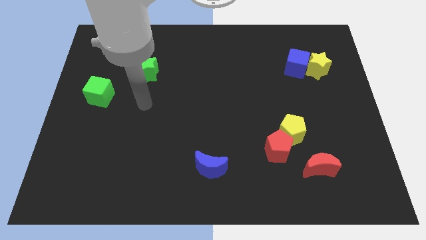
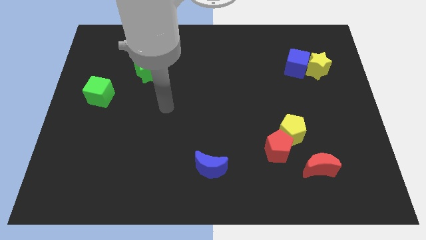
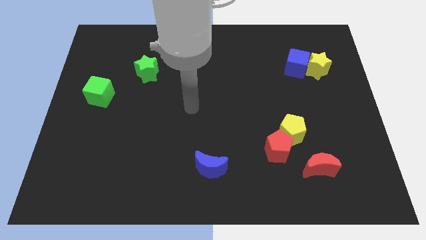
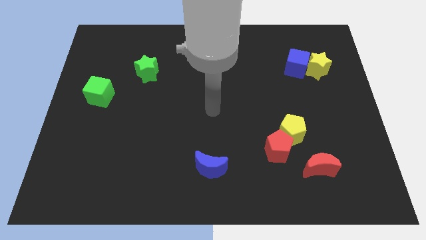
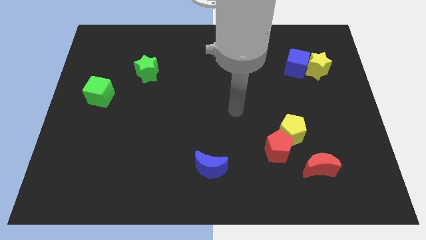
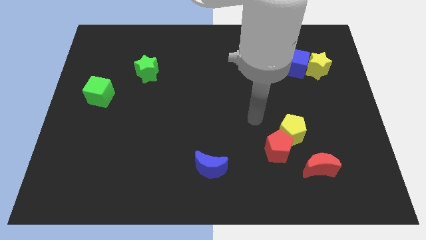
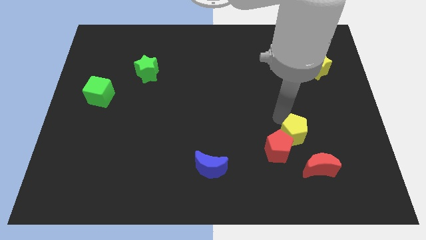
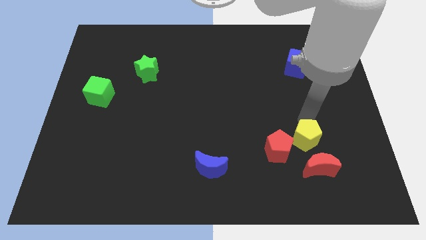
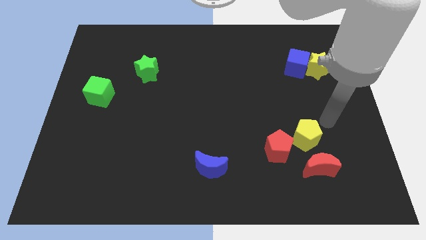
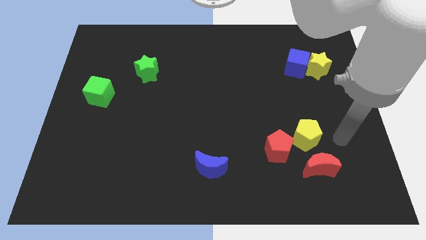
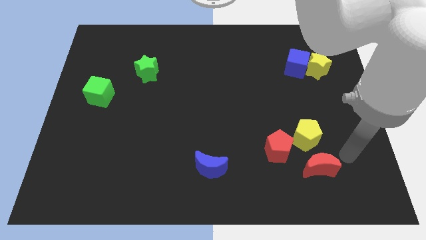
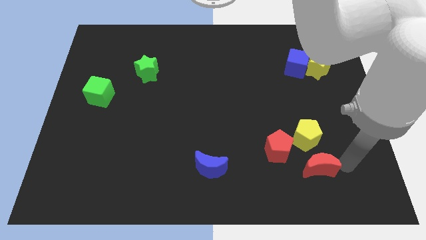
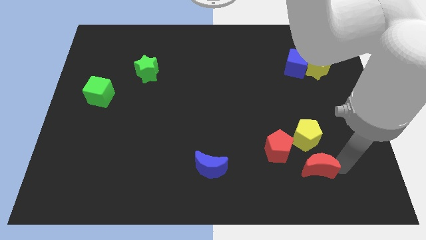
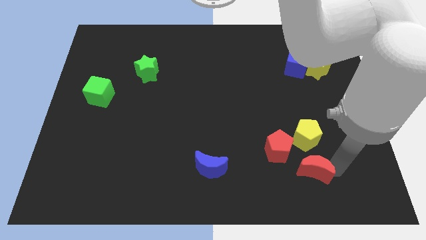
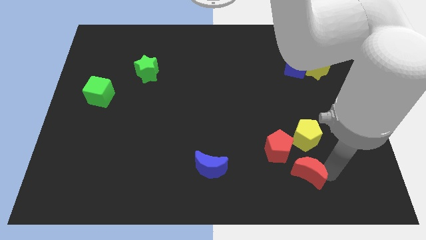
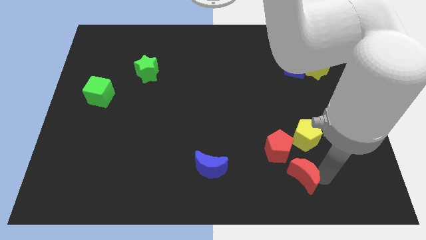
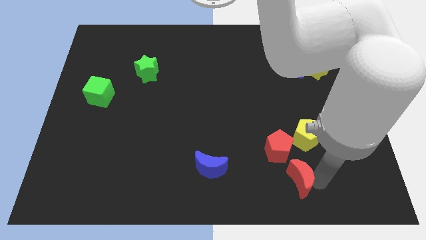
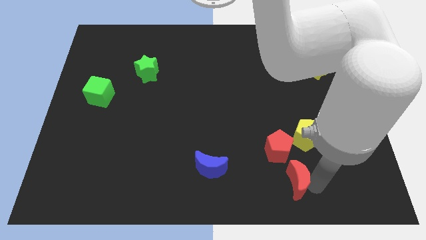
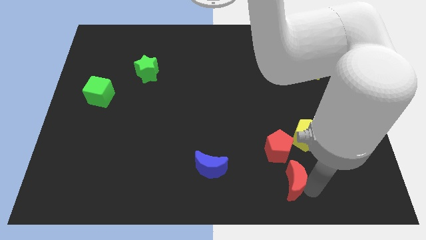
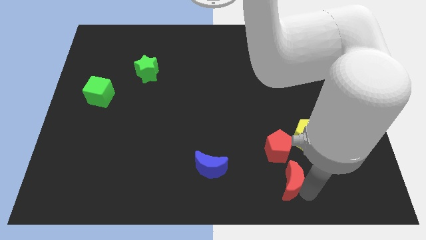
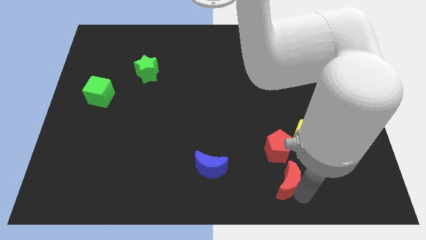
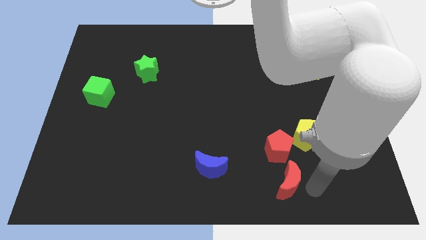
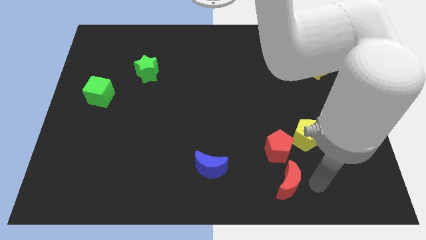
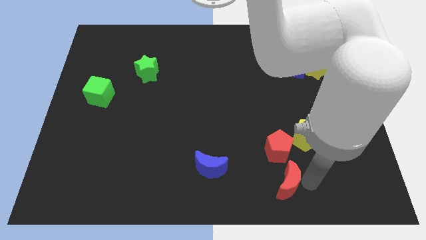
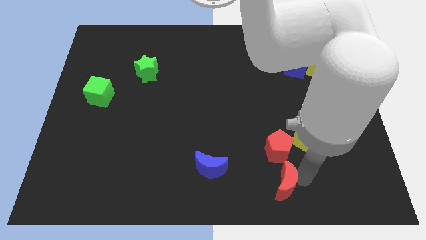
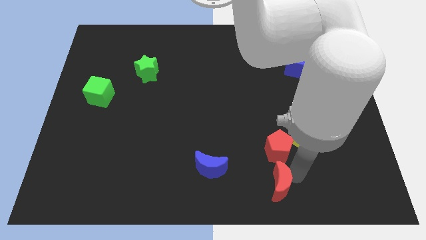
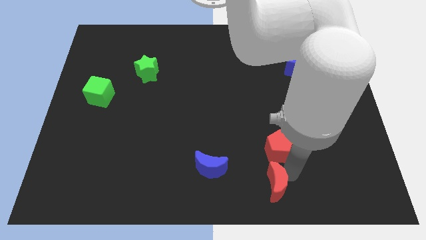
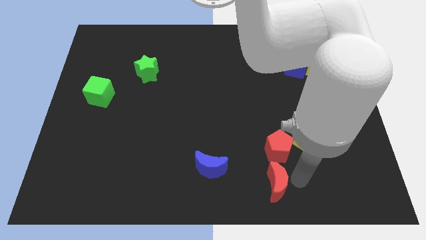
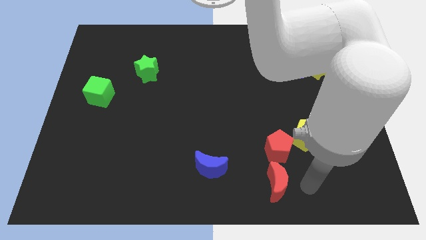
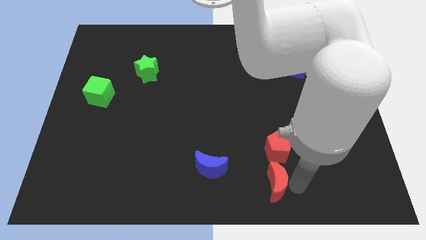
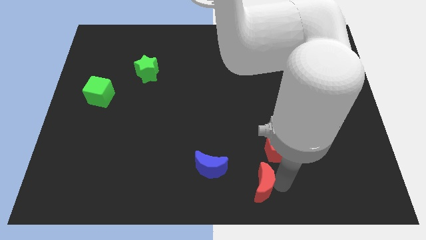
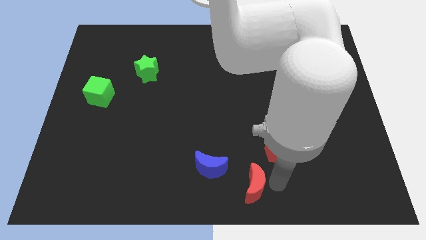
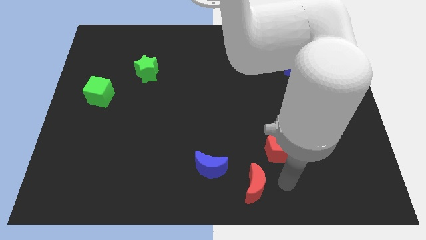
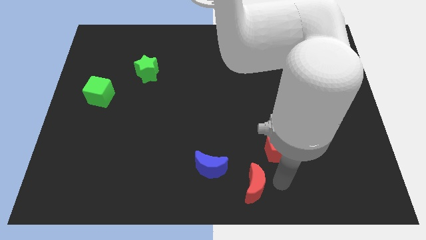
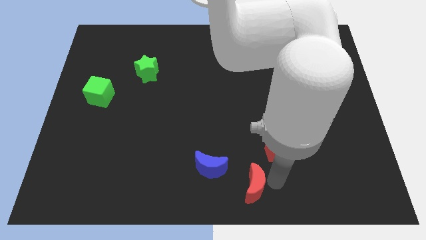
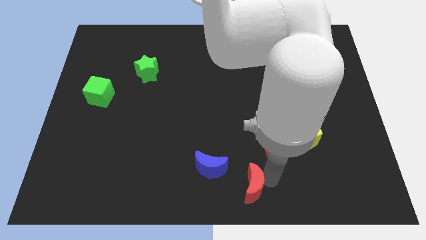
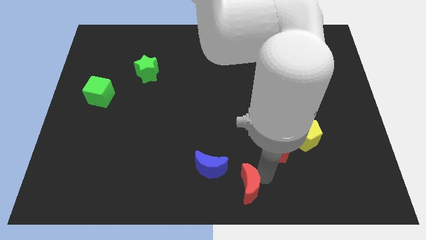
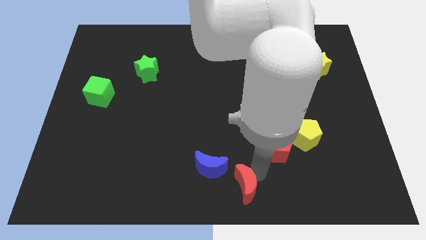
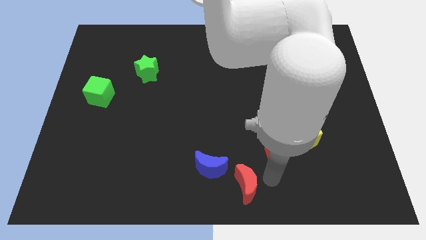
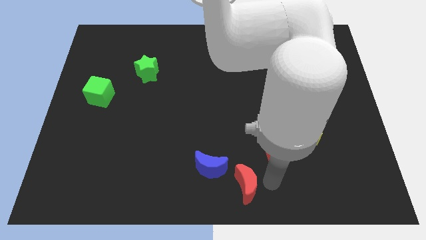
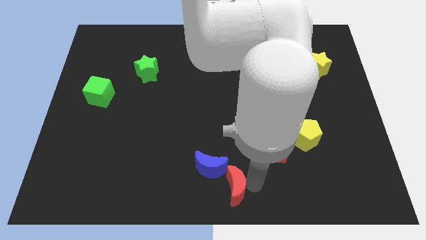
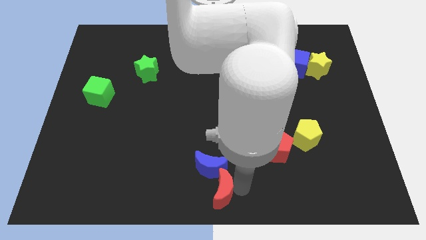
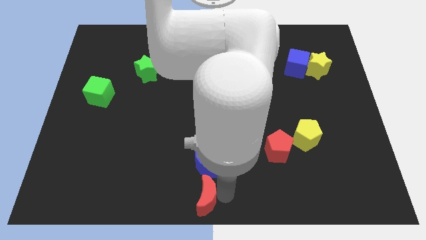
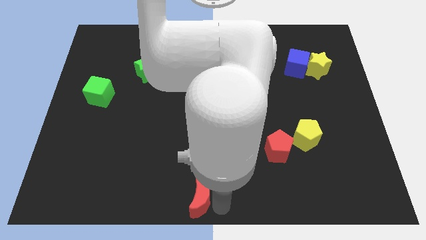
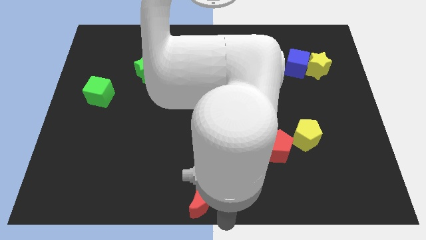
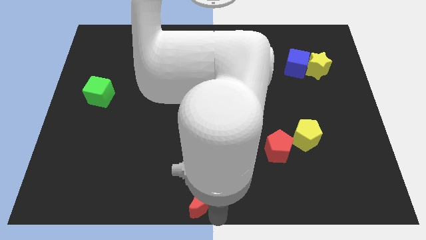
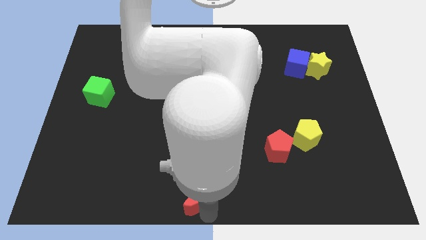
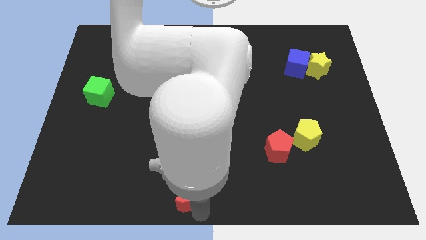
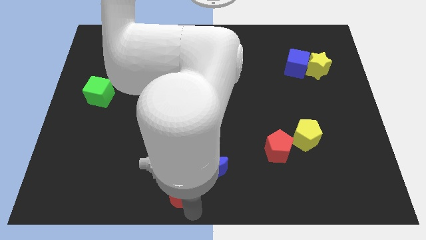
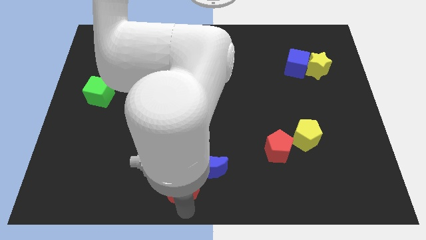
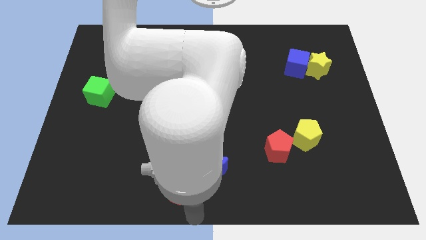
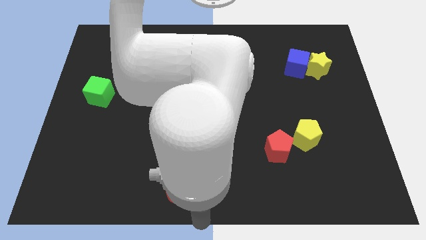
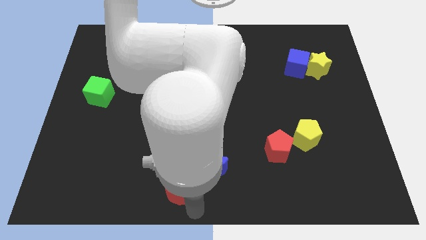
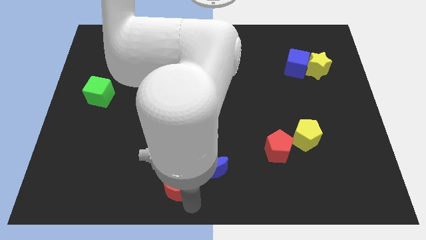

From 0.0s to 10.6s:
push the red moon left of the blue moon

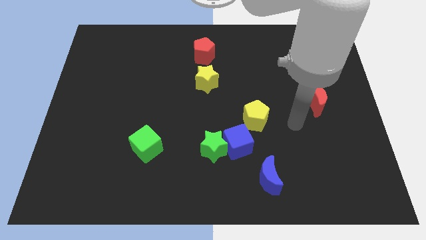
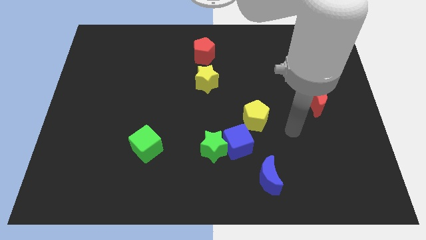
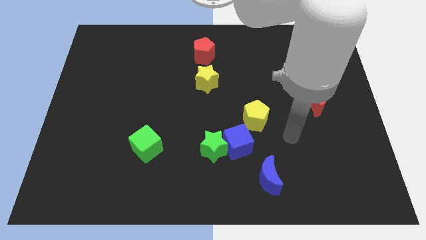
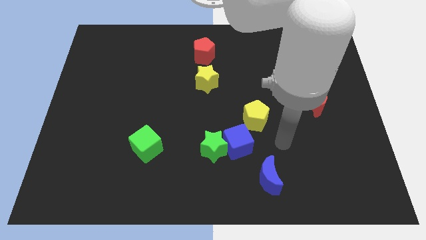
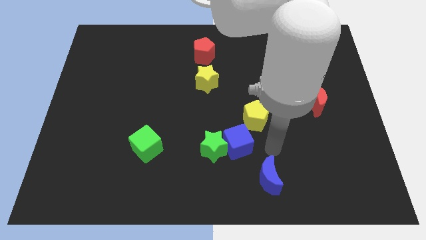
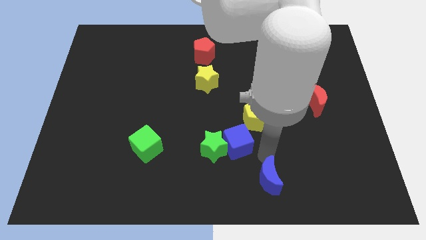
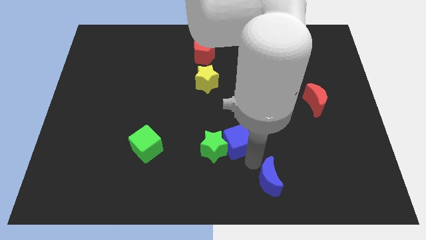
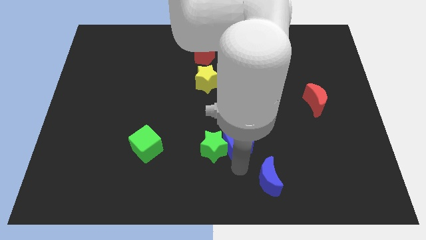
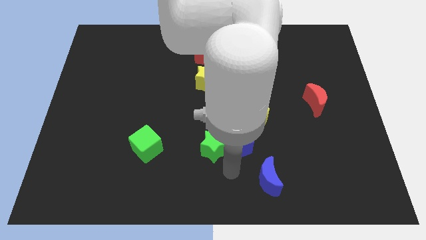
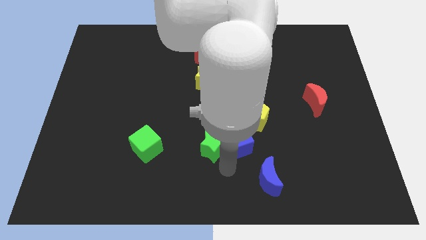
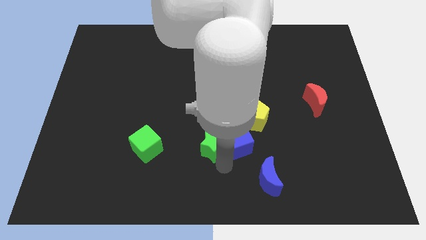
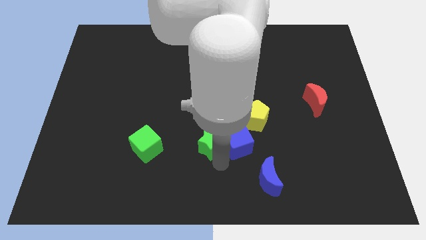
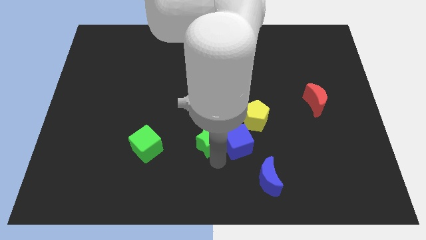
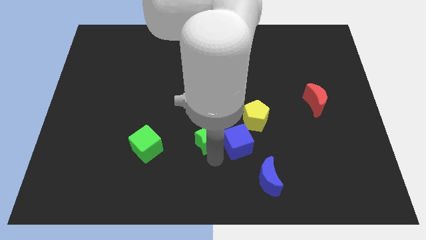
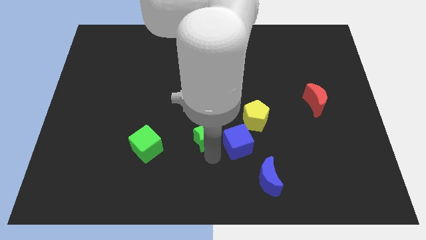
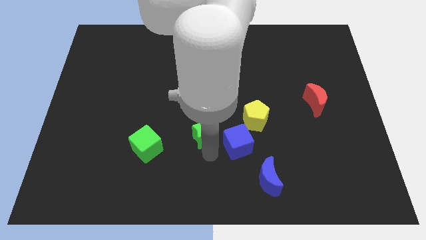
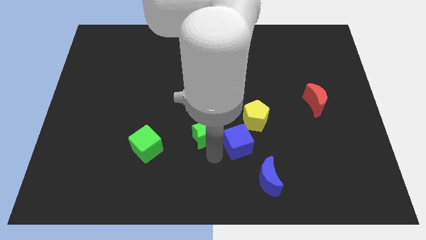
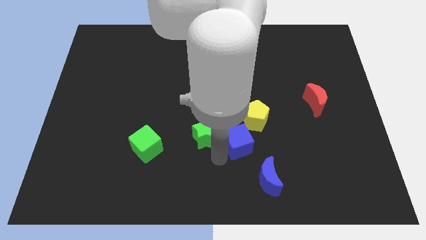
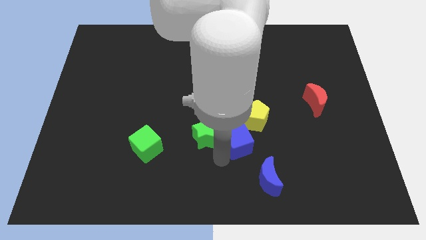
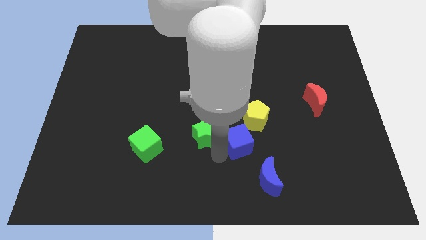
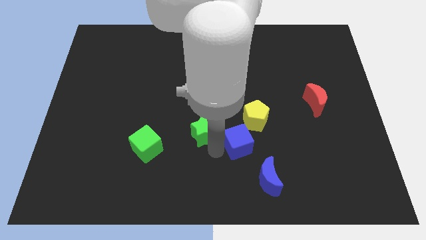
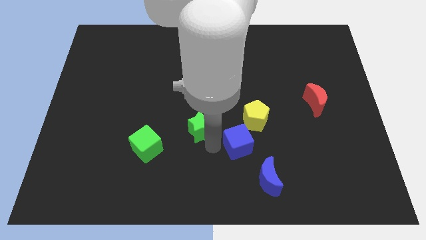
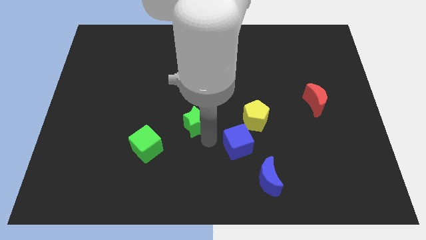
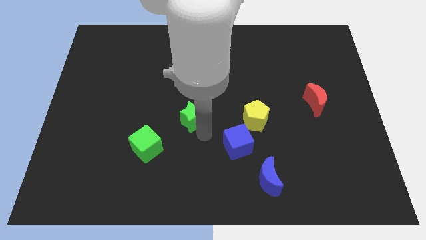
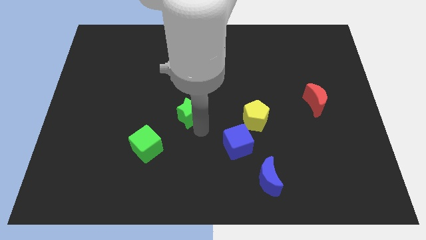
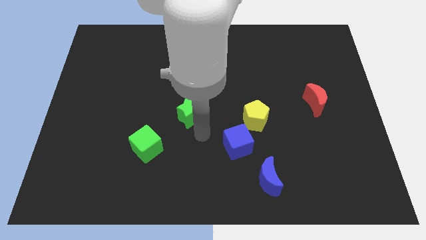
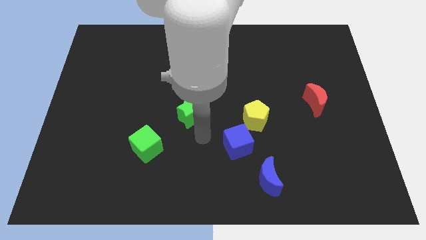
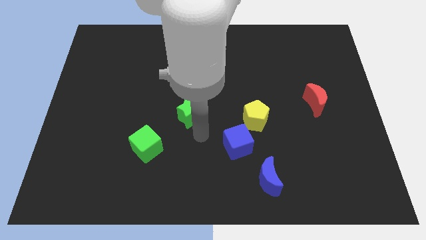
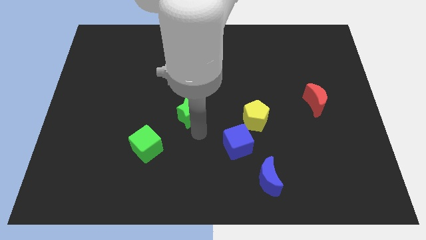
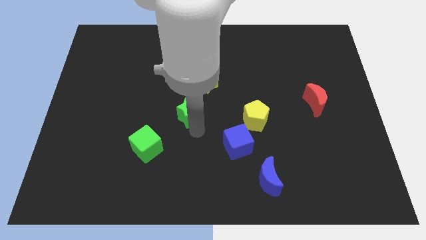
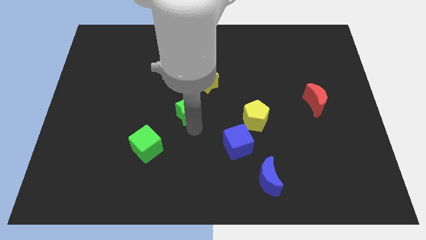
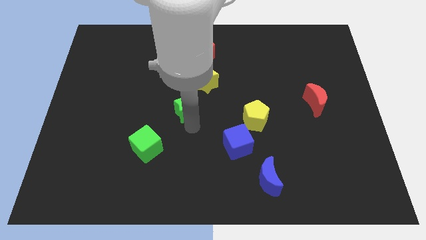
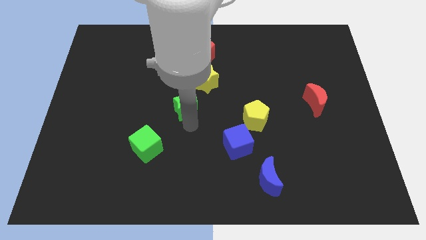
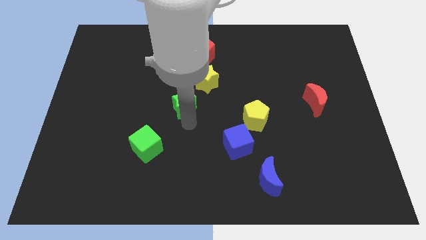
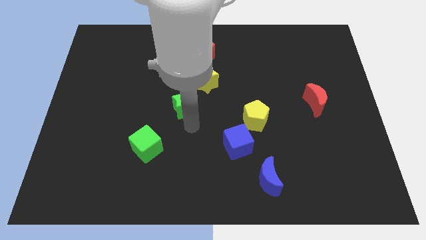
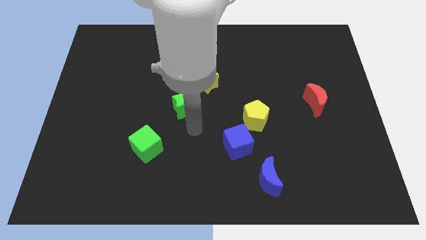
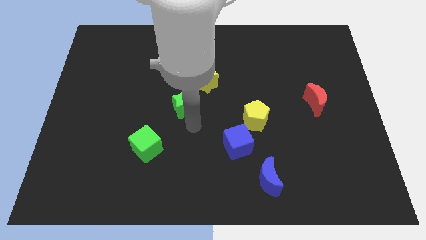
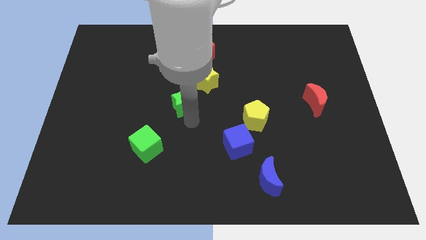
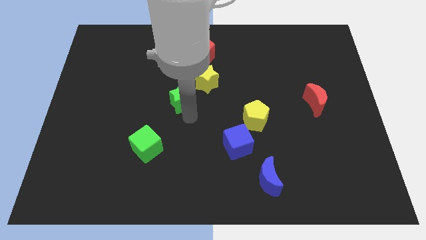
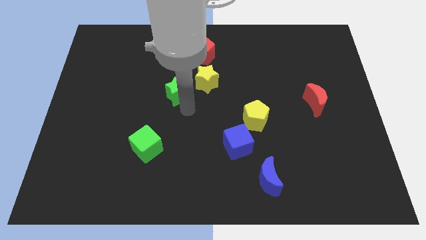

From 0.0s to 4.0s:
push the green star just left of the yellow star
